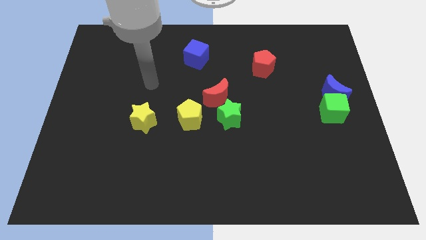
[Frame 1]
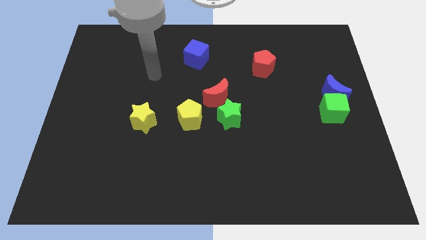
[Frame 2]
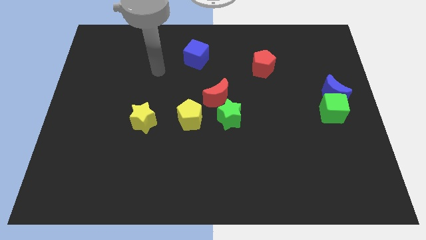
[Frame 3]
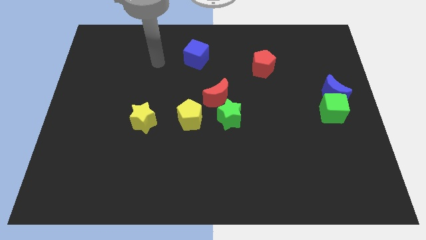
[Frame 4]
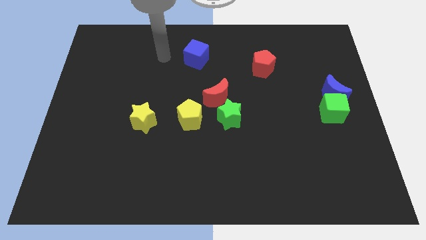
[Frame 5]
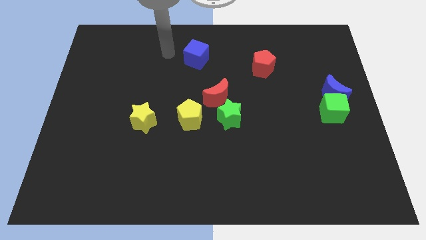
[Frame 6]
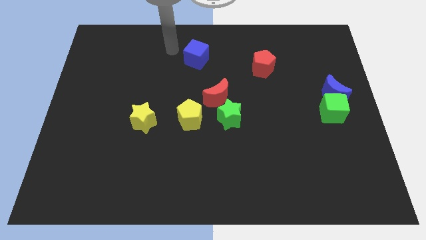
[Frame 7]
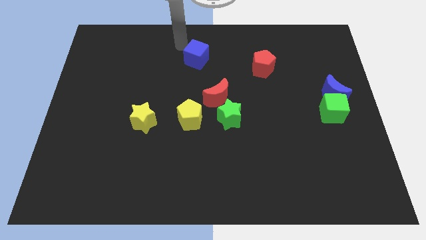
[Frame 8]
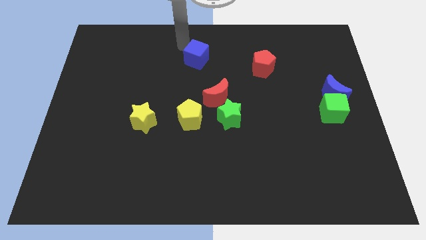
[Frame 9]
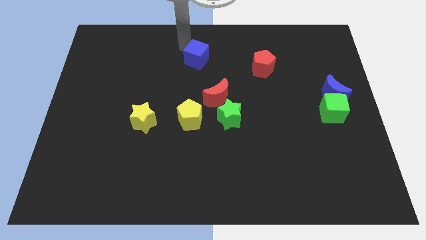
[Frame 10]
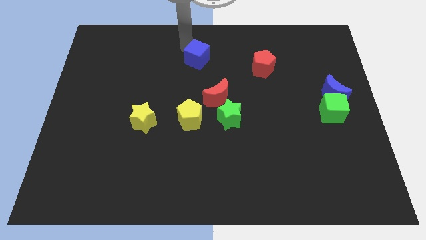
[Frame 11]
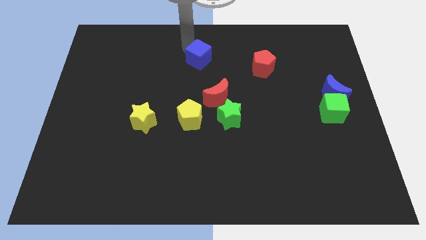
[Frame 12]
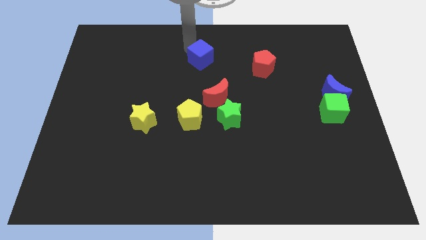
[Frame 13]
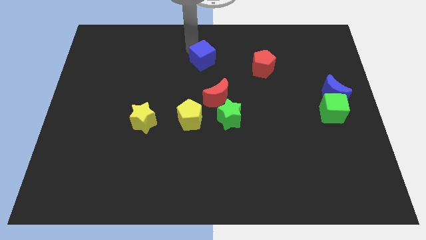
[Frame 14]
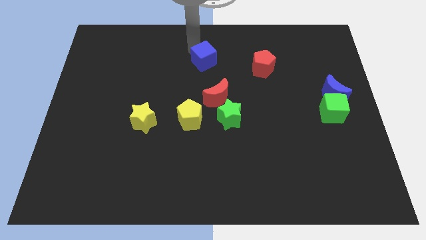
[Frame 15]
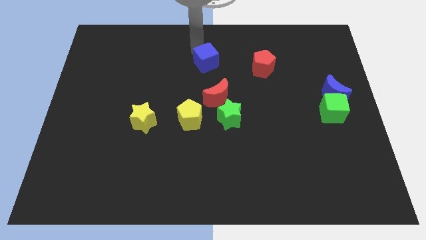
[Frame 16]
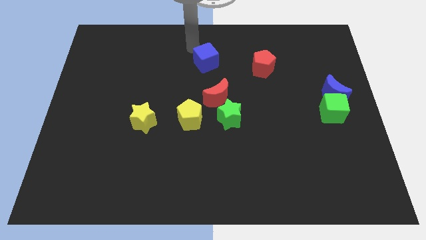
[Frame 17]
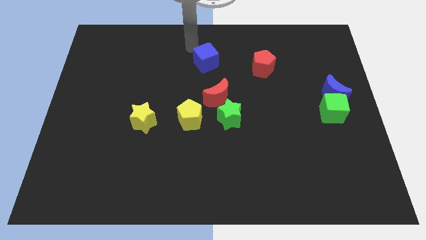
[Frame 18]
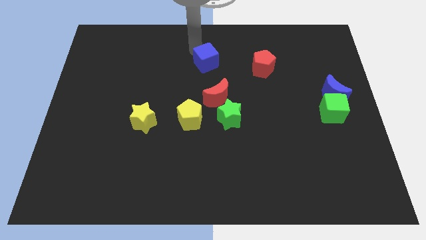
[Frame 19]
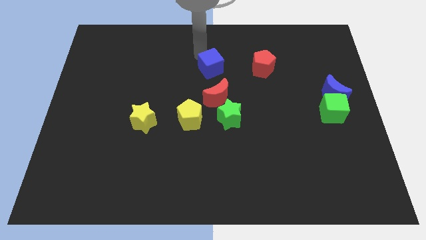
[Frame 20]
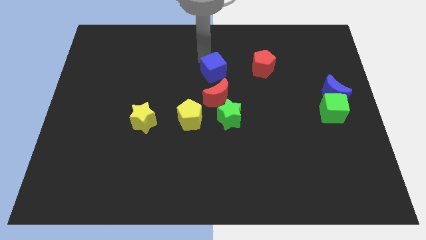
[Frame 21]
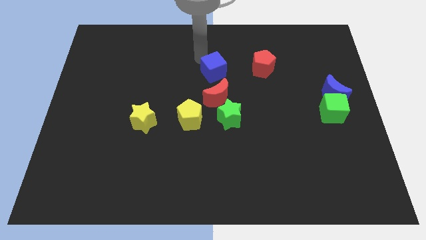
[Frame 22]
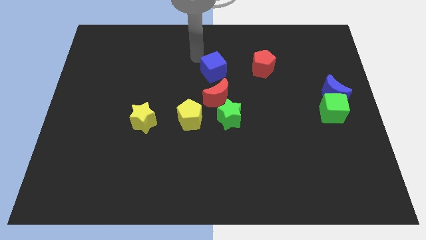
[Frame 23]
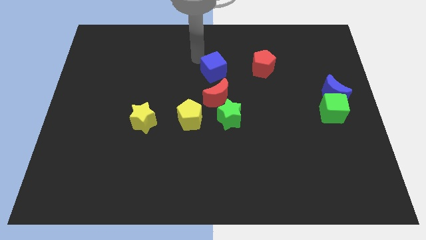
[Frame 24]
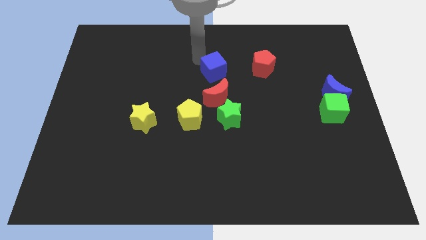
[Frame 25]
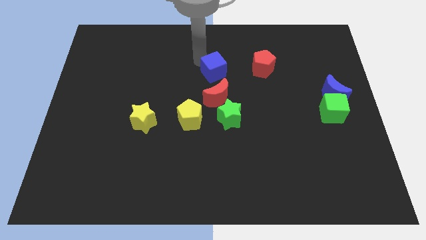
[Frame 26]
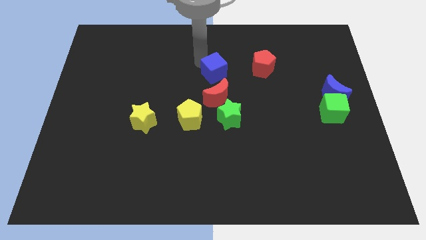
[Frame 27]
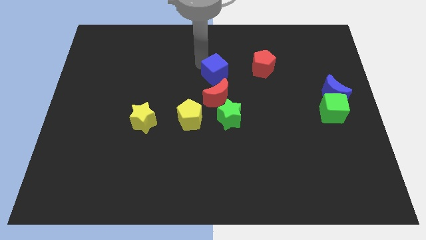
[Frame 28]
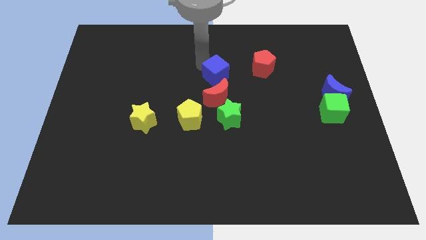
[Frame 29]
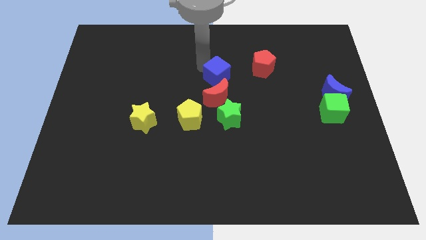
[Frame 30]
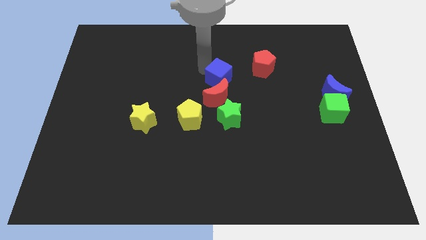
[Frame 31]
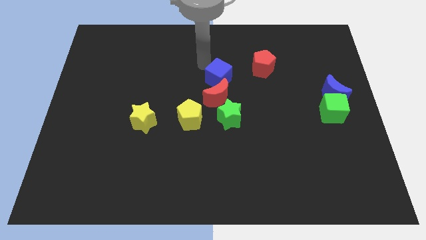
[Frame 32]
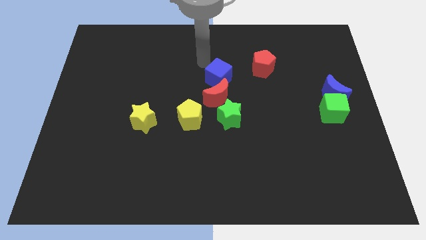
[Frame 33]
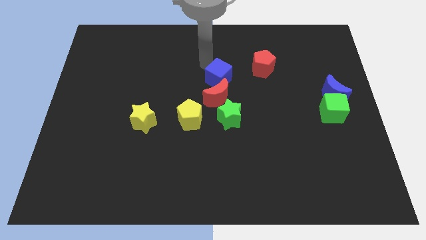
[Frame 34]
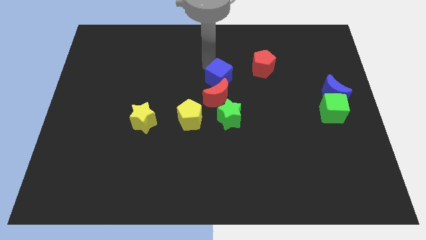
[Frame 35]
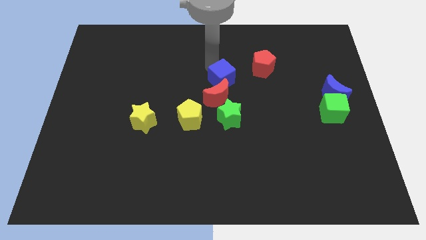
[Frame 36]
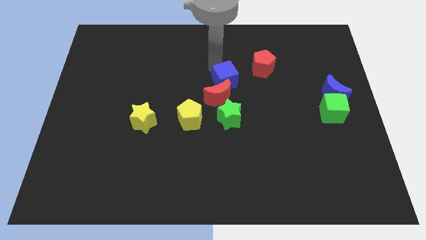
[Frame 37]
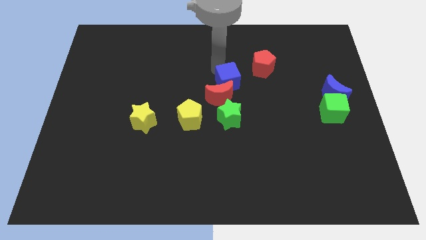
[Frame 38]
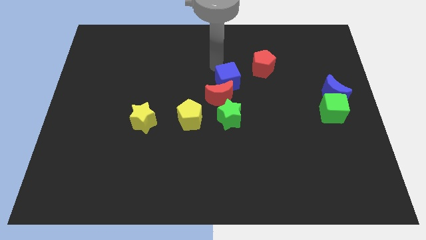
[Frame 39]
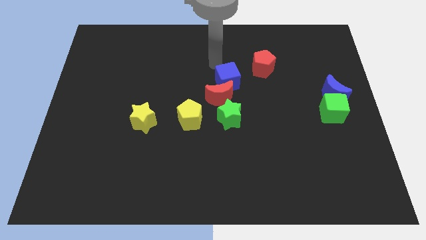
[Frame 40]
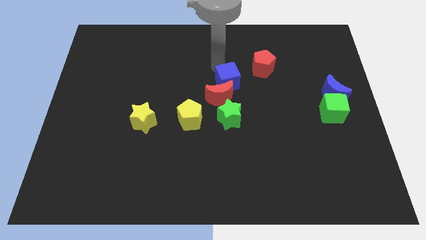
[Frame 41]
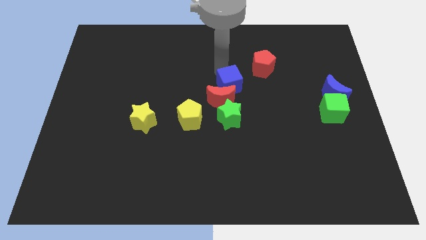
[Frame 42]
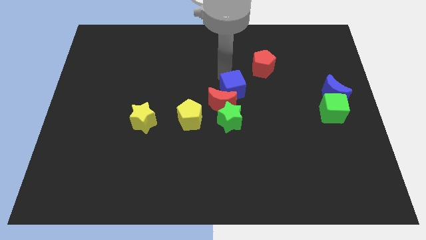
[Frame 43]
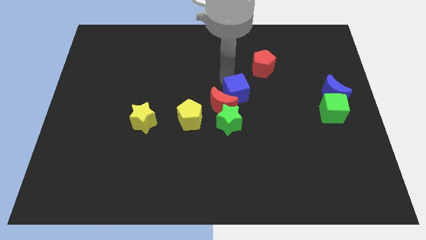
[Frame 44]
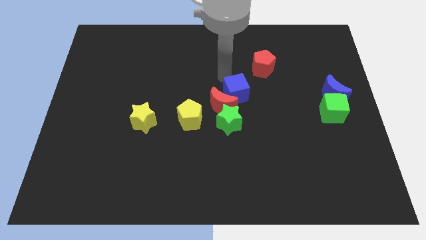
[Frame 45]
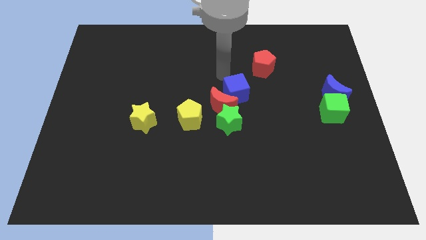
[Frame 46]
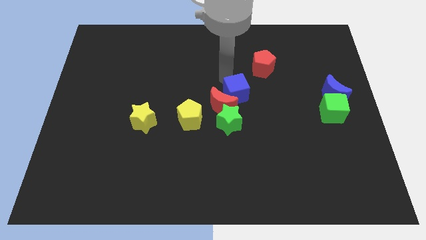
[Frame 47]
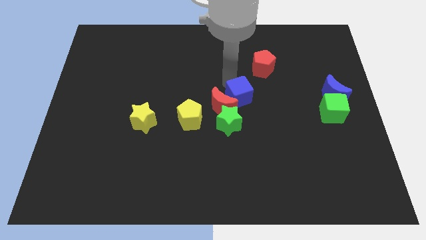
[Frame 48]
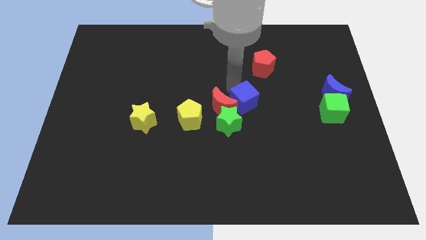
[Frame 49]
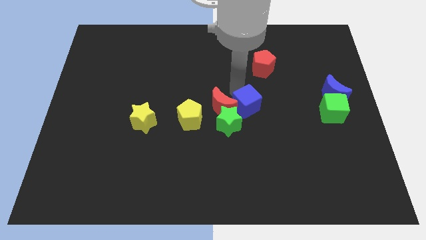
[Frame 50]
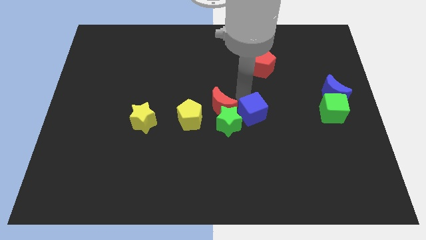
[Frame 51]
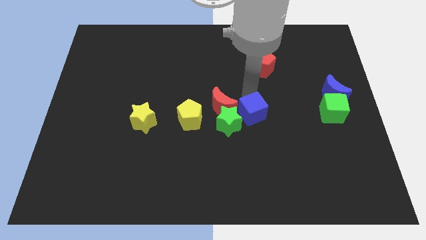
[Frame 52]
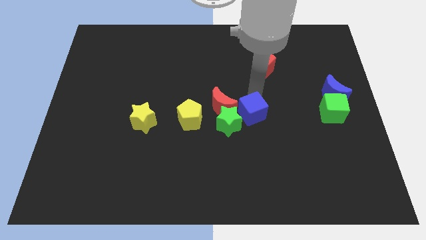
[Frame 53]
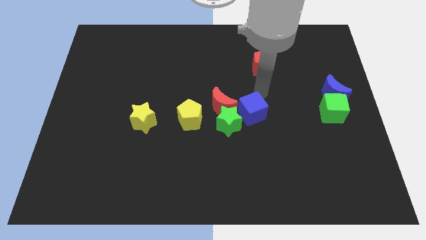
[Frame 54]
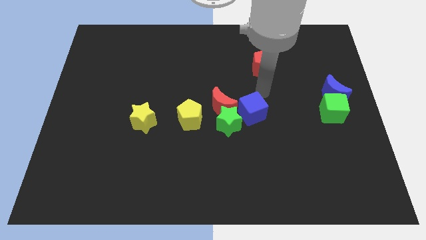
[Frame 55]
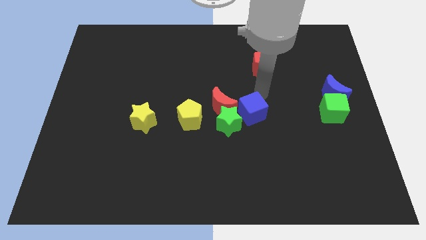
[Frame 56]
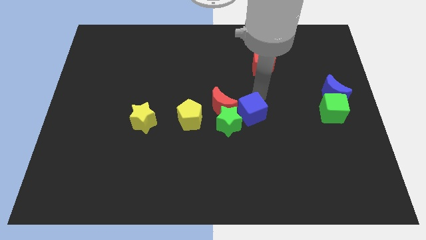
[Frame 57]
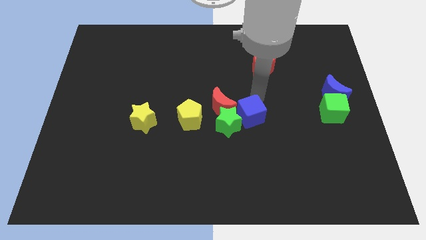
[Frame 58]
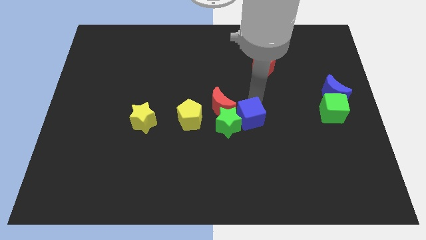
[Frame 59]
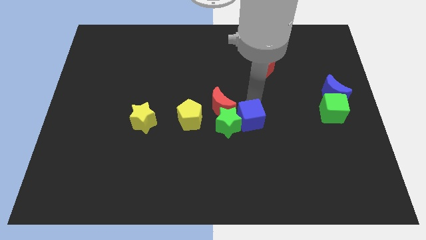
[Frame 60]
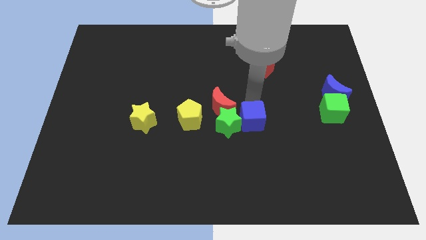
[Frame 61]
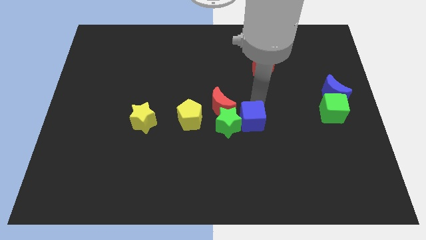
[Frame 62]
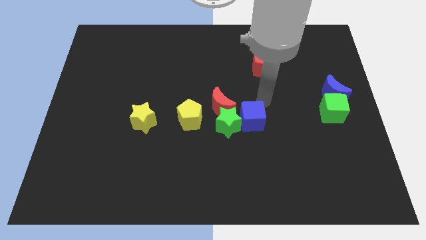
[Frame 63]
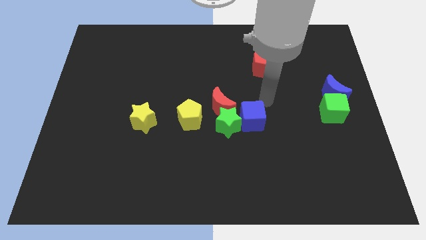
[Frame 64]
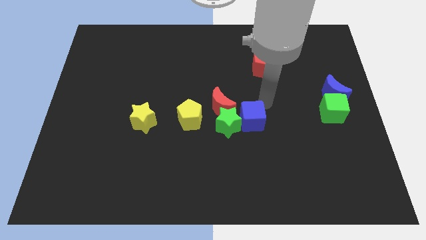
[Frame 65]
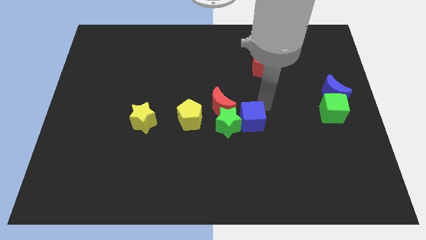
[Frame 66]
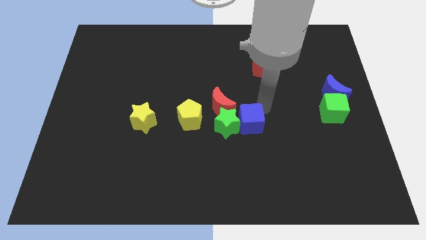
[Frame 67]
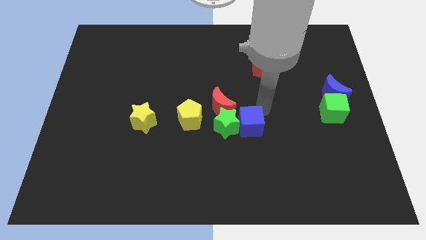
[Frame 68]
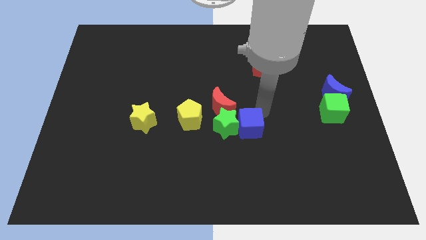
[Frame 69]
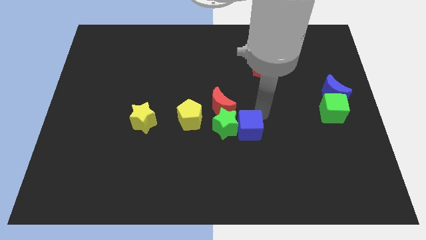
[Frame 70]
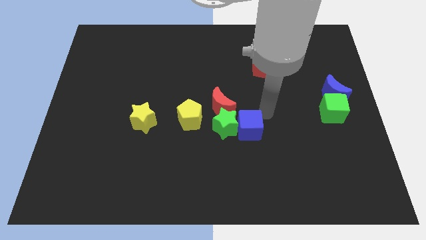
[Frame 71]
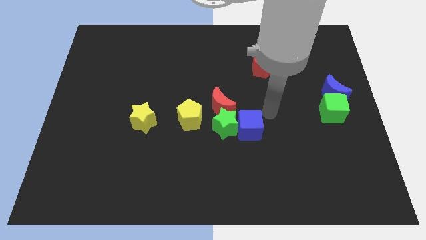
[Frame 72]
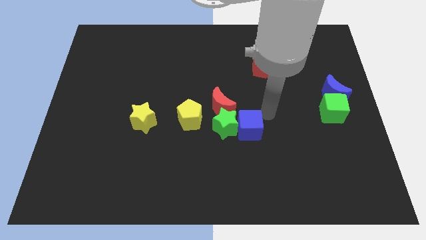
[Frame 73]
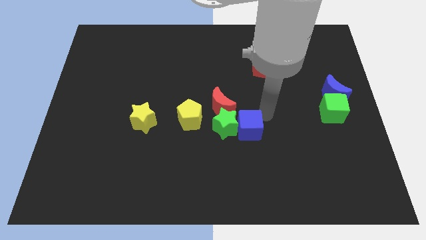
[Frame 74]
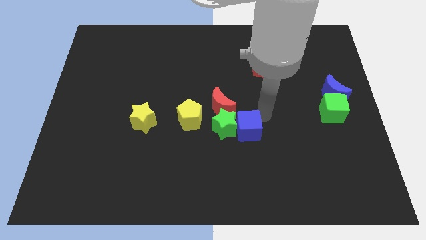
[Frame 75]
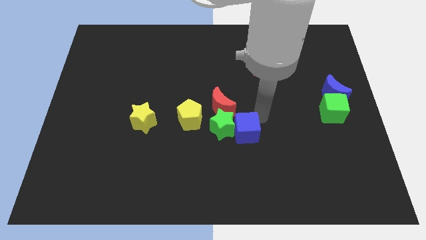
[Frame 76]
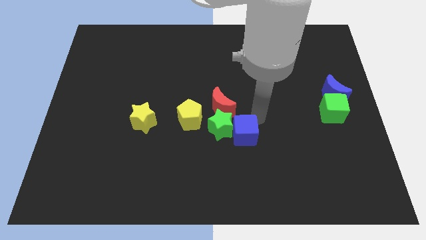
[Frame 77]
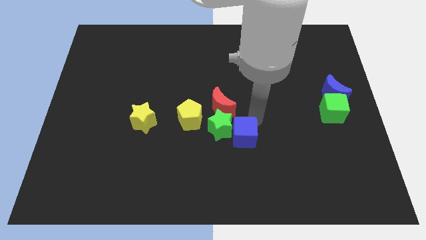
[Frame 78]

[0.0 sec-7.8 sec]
slide the blue cube below the red moon
